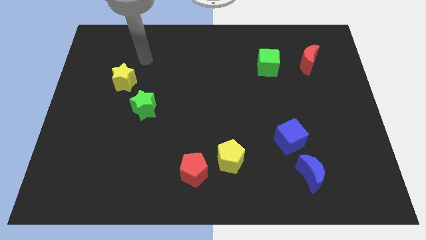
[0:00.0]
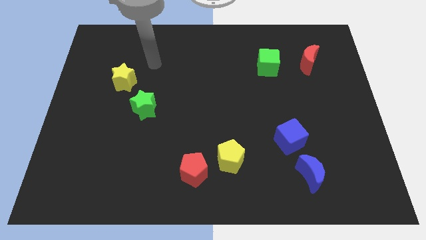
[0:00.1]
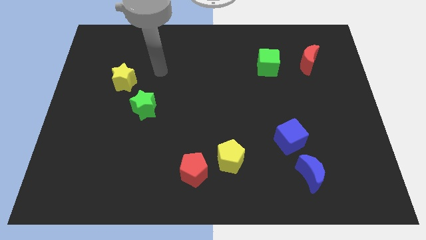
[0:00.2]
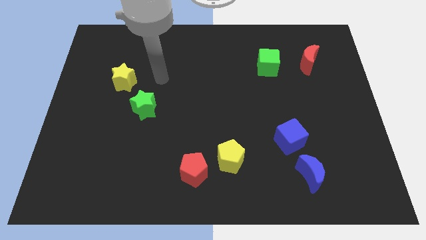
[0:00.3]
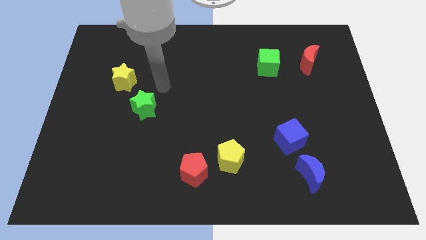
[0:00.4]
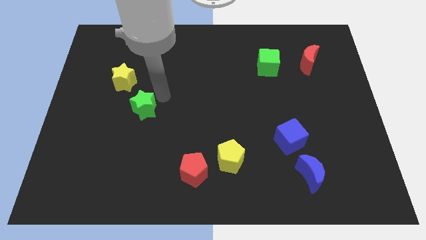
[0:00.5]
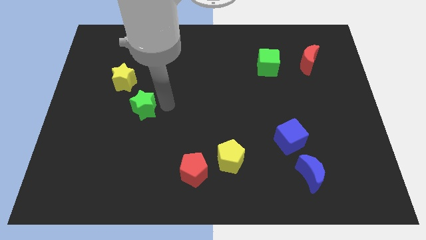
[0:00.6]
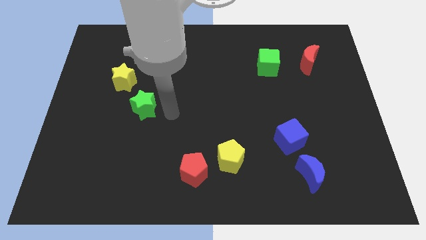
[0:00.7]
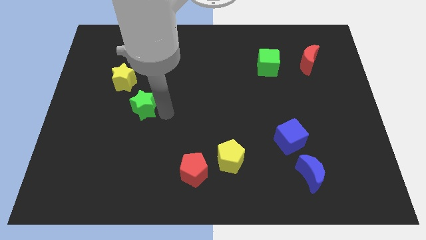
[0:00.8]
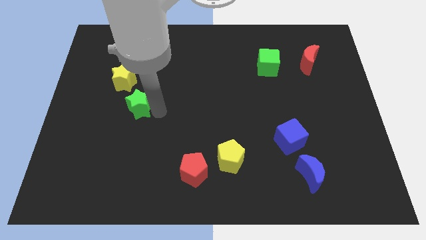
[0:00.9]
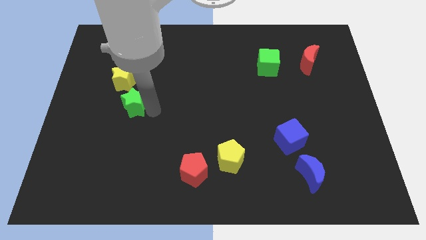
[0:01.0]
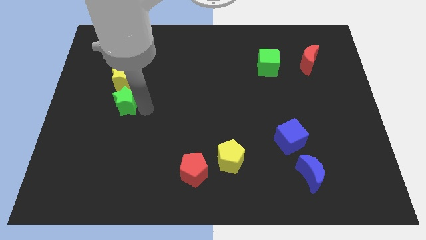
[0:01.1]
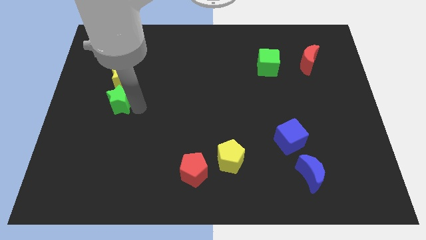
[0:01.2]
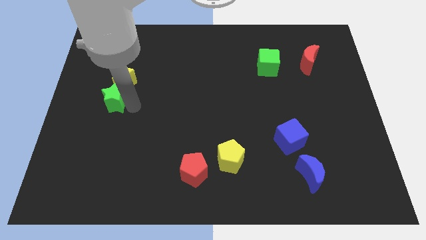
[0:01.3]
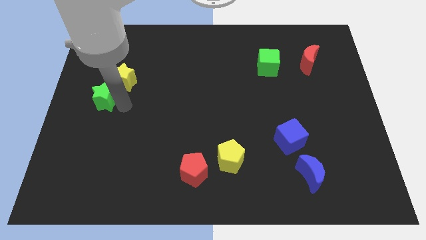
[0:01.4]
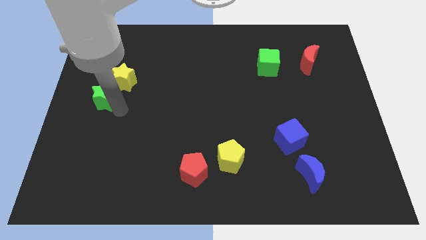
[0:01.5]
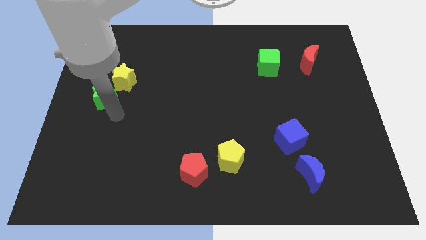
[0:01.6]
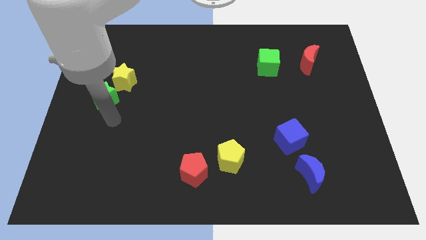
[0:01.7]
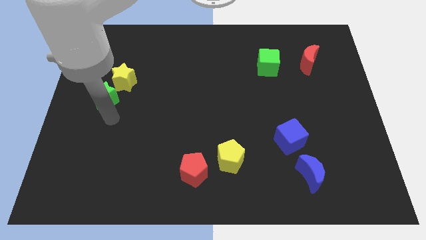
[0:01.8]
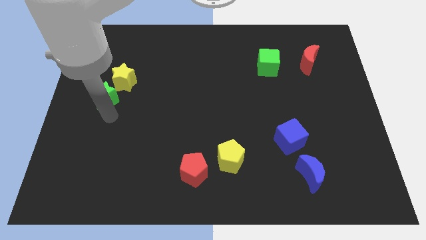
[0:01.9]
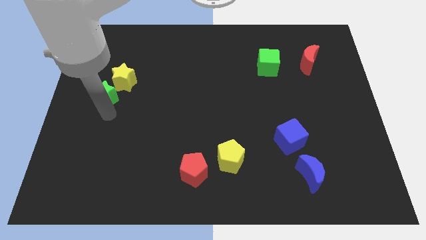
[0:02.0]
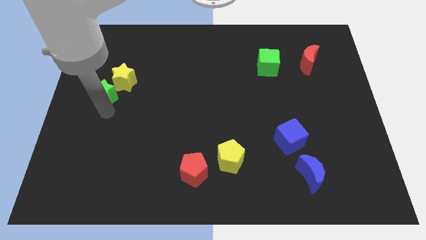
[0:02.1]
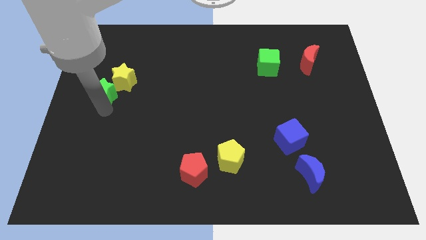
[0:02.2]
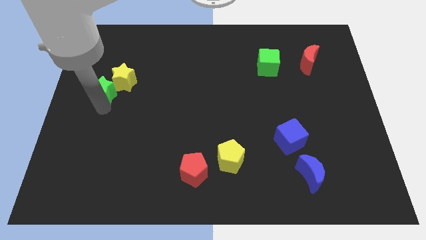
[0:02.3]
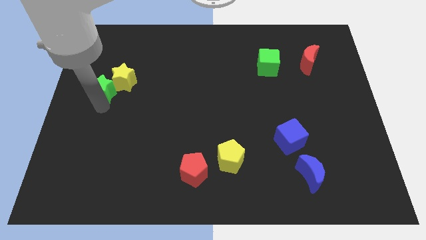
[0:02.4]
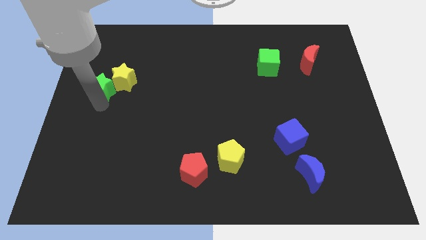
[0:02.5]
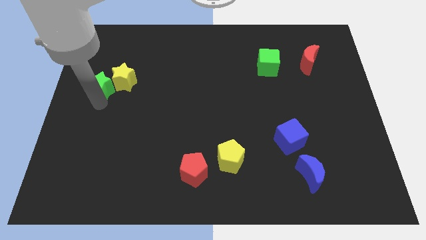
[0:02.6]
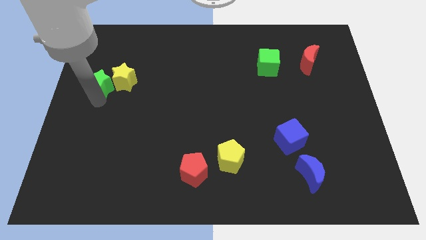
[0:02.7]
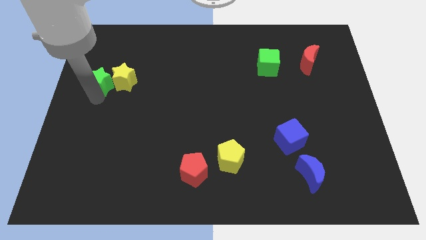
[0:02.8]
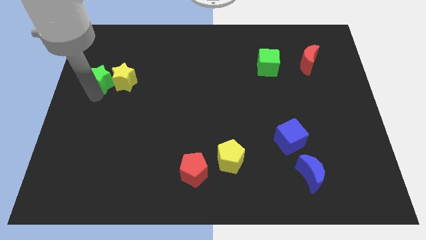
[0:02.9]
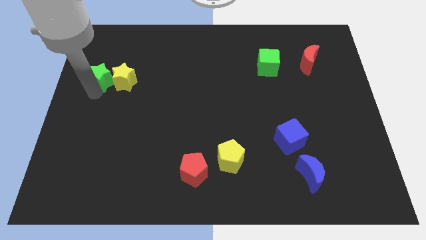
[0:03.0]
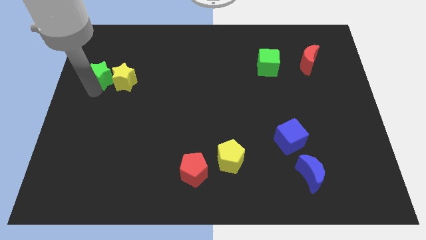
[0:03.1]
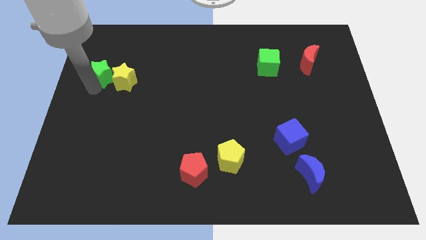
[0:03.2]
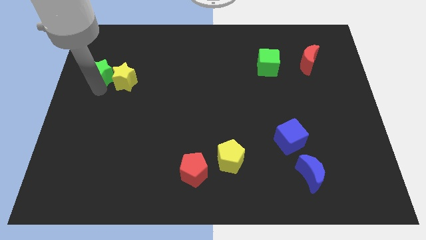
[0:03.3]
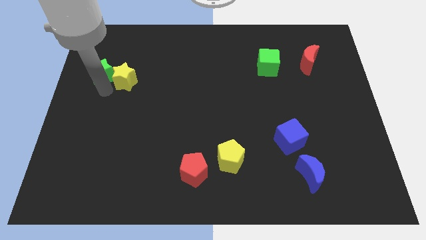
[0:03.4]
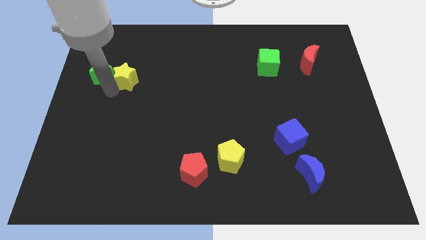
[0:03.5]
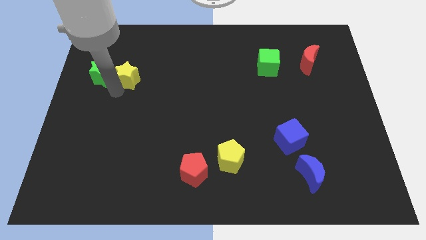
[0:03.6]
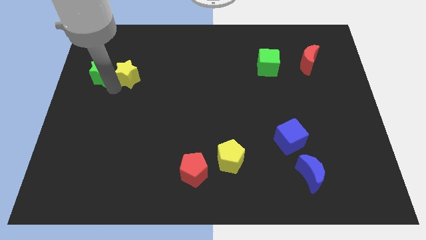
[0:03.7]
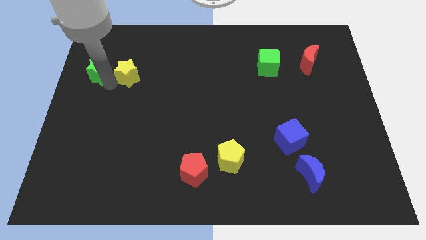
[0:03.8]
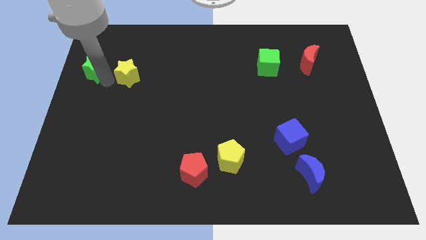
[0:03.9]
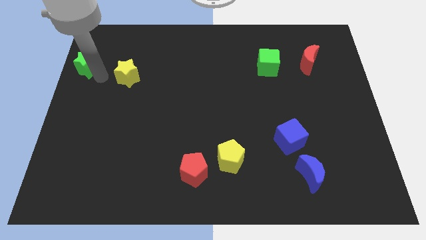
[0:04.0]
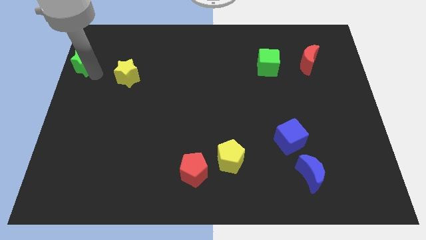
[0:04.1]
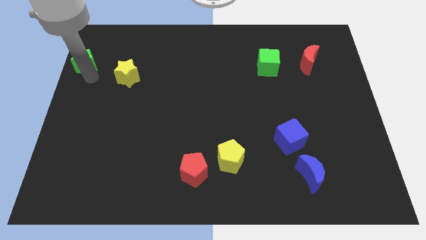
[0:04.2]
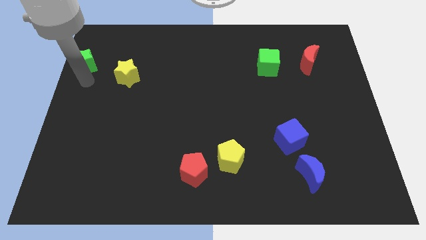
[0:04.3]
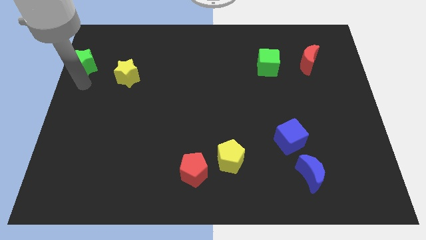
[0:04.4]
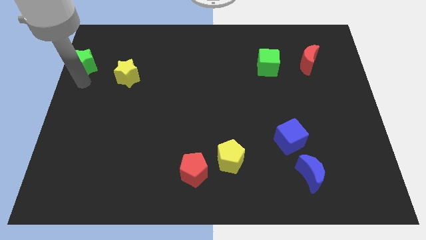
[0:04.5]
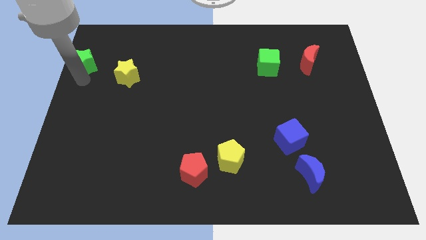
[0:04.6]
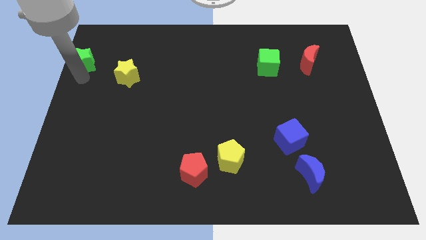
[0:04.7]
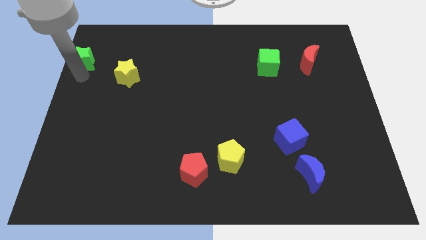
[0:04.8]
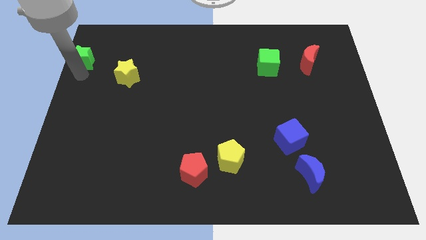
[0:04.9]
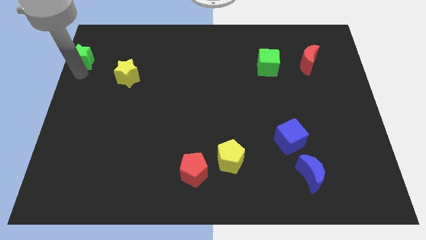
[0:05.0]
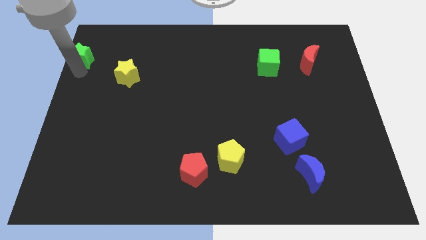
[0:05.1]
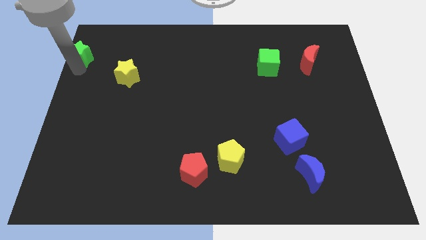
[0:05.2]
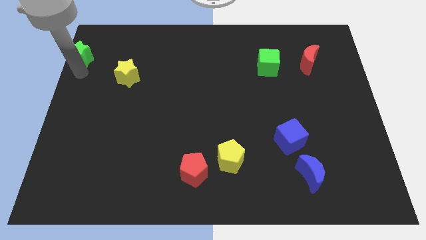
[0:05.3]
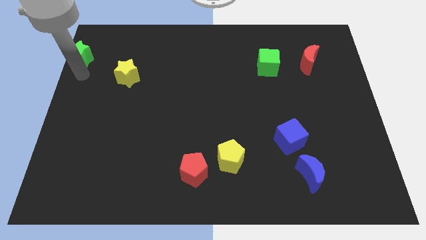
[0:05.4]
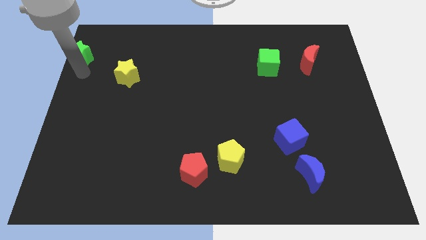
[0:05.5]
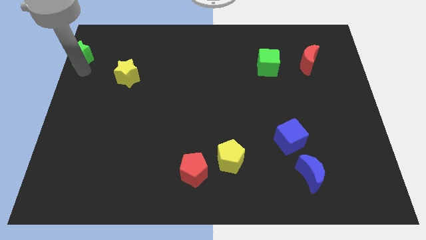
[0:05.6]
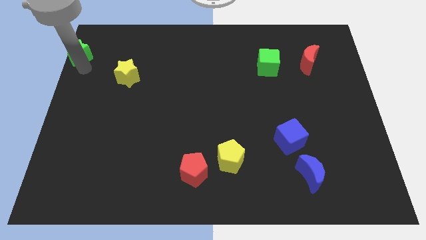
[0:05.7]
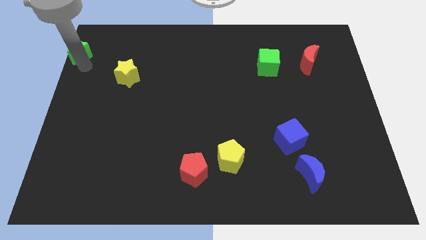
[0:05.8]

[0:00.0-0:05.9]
slide the green star to the upper left corner

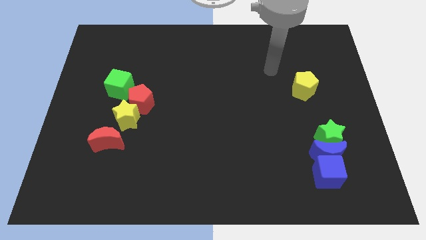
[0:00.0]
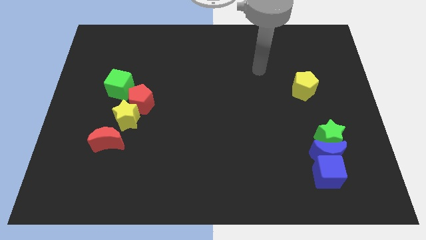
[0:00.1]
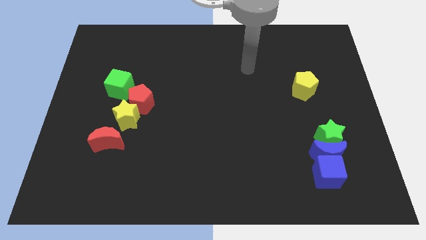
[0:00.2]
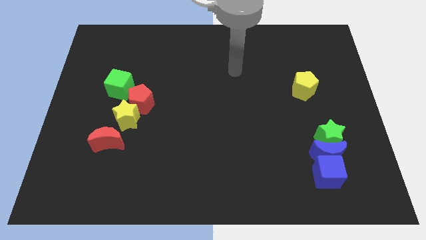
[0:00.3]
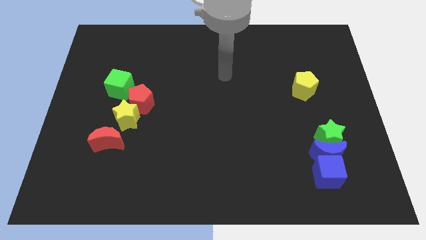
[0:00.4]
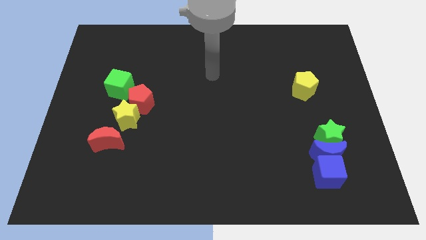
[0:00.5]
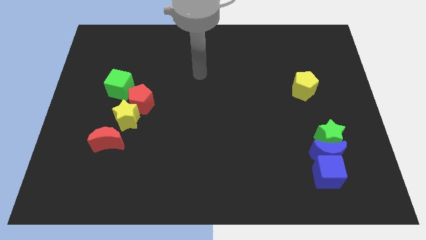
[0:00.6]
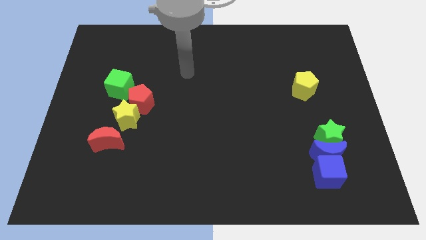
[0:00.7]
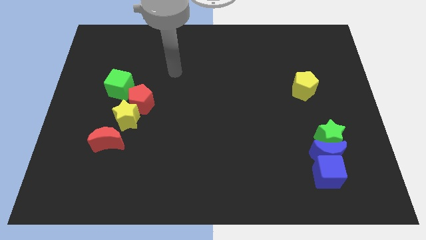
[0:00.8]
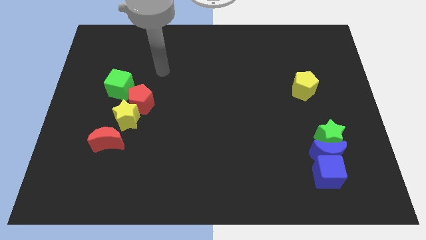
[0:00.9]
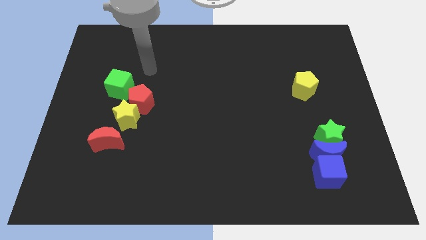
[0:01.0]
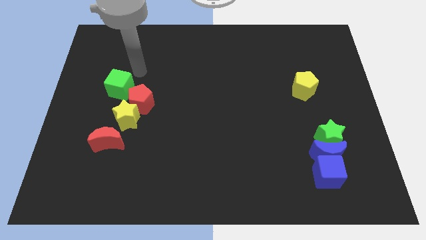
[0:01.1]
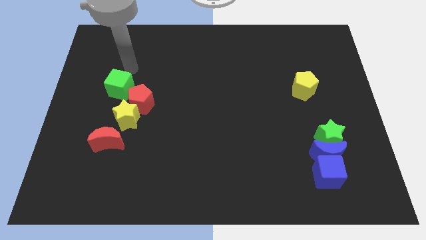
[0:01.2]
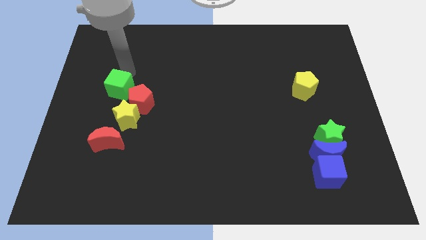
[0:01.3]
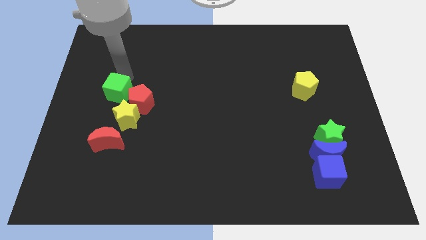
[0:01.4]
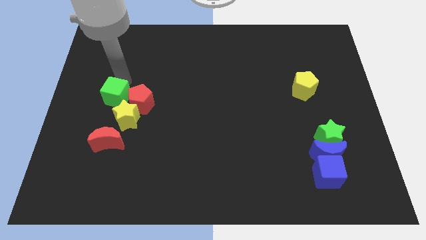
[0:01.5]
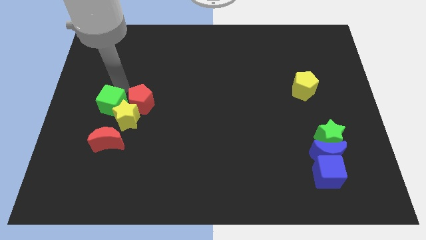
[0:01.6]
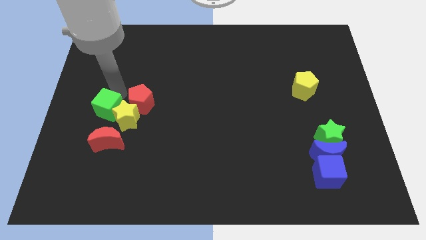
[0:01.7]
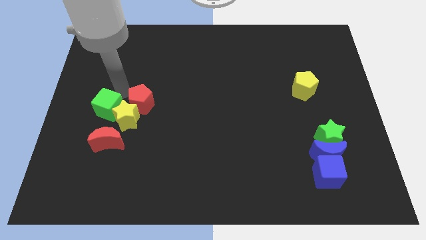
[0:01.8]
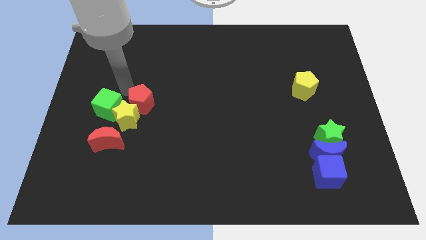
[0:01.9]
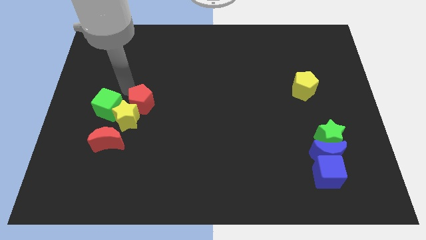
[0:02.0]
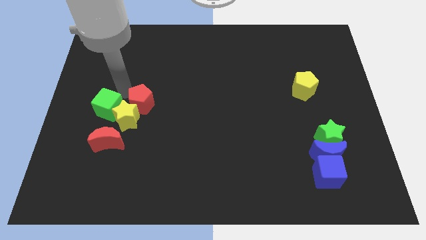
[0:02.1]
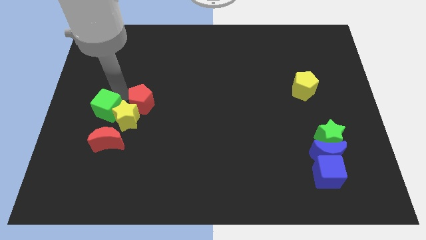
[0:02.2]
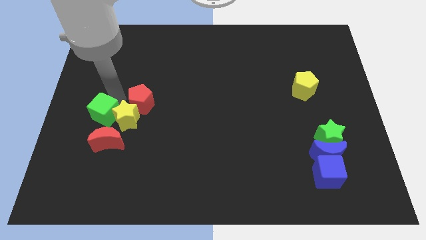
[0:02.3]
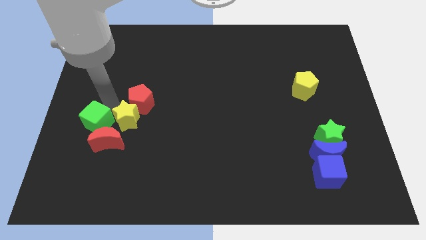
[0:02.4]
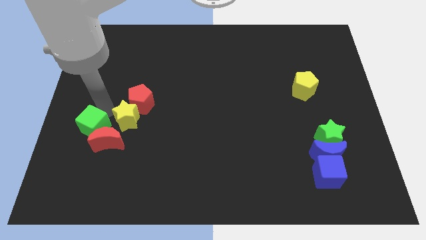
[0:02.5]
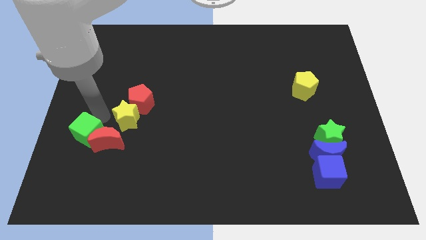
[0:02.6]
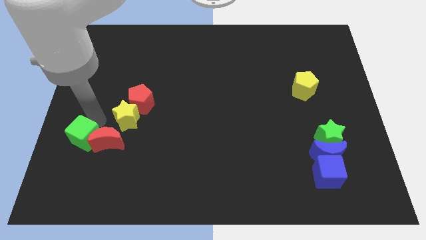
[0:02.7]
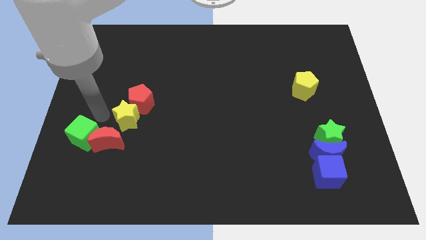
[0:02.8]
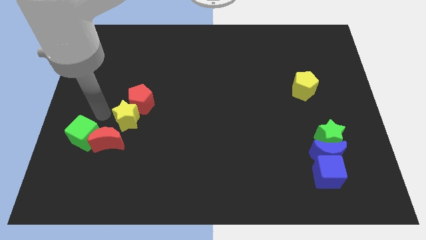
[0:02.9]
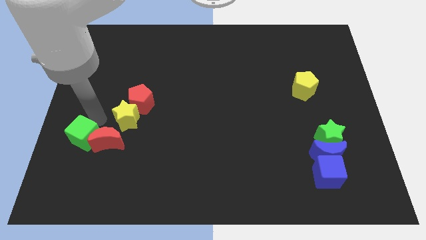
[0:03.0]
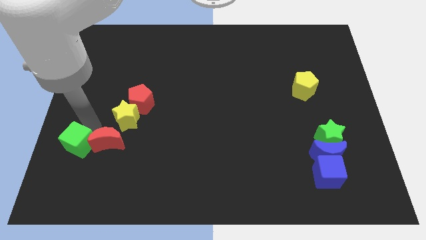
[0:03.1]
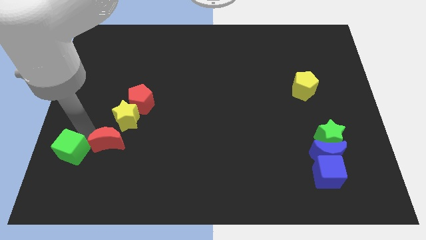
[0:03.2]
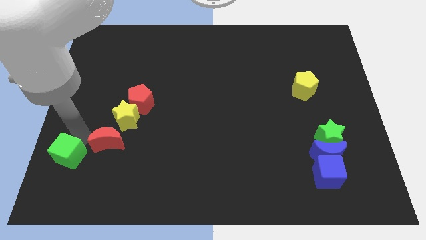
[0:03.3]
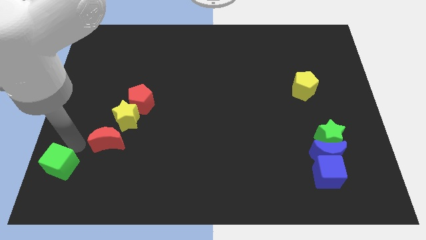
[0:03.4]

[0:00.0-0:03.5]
push the green cube to the bottom left
